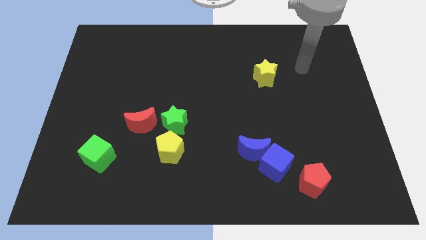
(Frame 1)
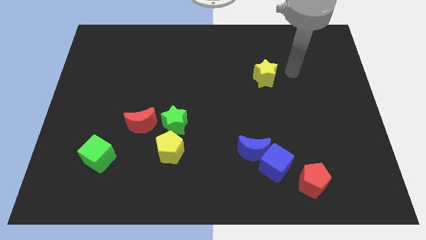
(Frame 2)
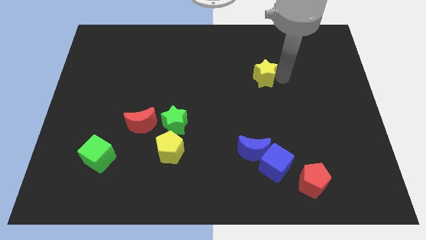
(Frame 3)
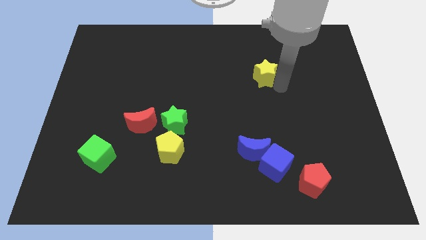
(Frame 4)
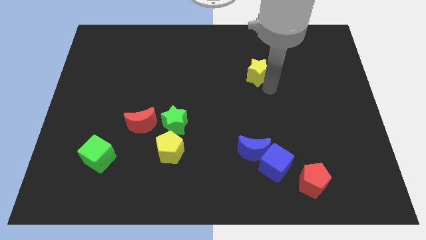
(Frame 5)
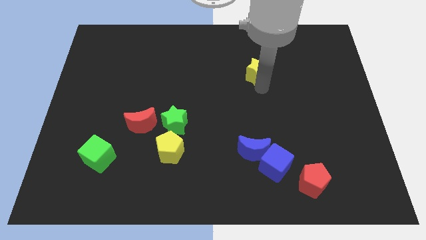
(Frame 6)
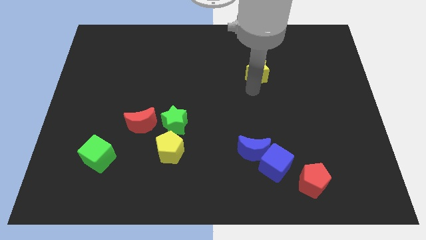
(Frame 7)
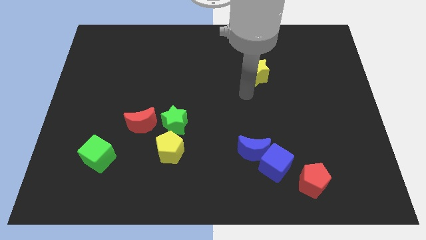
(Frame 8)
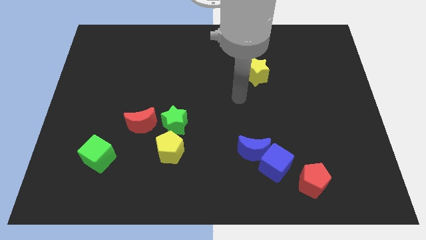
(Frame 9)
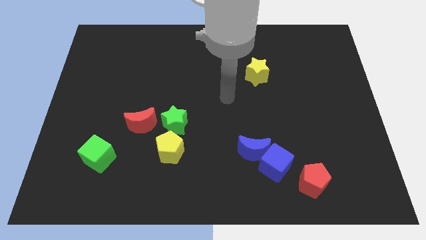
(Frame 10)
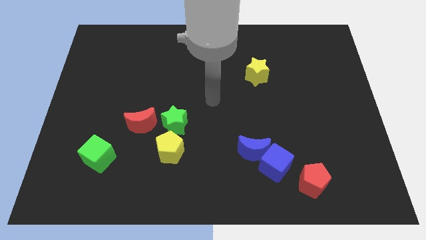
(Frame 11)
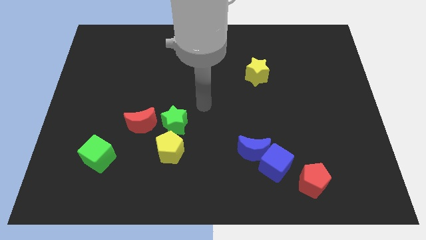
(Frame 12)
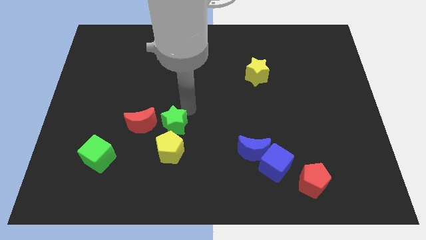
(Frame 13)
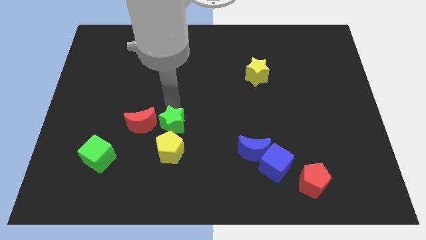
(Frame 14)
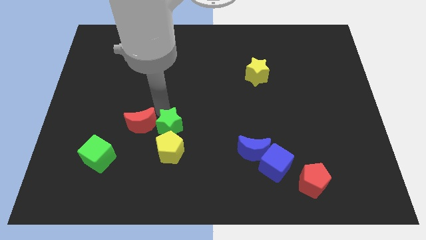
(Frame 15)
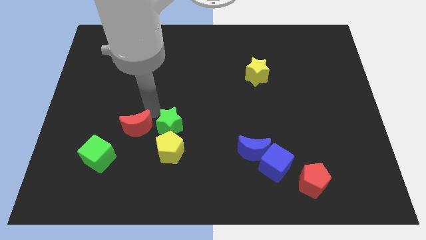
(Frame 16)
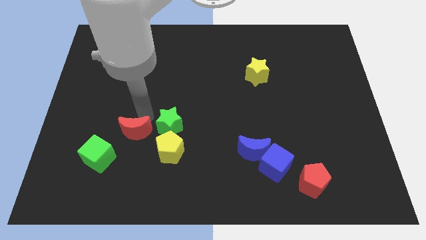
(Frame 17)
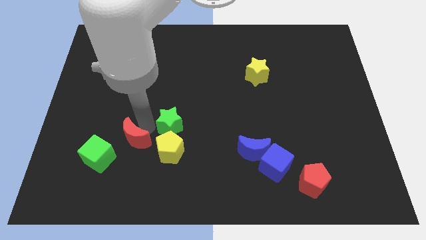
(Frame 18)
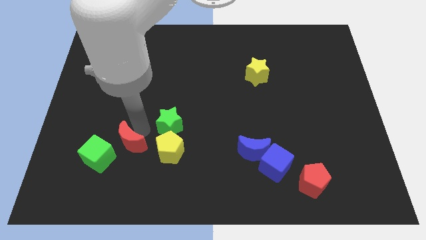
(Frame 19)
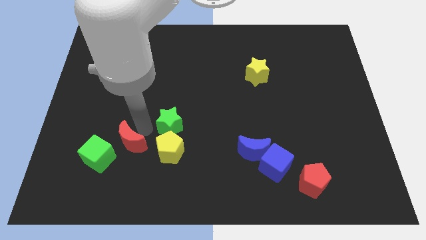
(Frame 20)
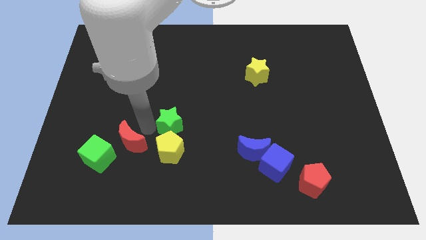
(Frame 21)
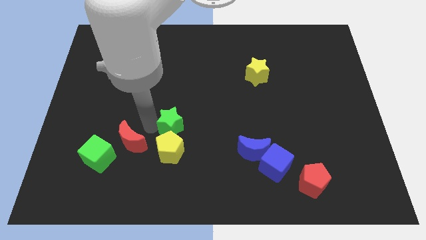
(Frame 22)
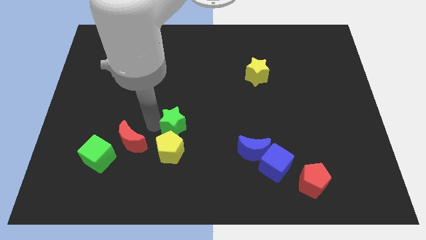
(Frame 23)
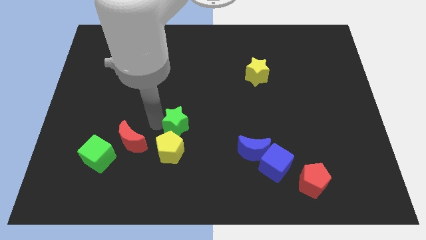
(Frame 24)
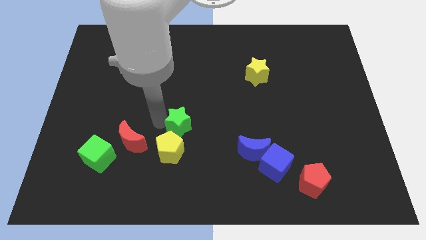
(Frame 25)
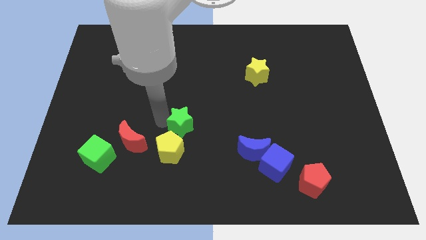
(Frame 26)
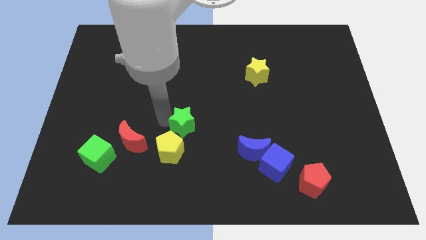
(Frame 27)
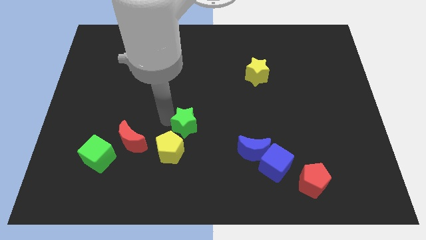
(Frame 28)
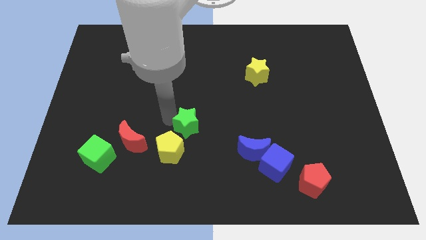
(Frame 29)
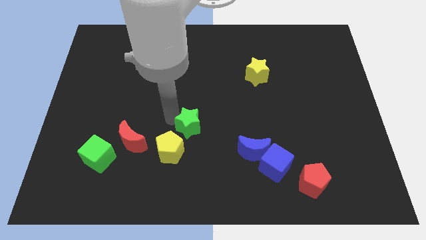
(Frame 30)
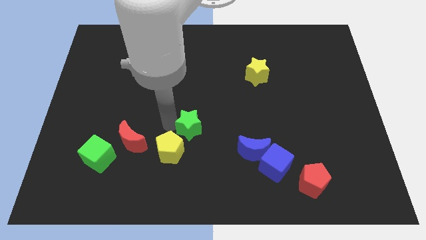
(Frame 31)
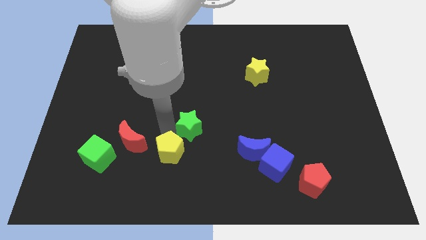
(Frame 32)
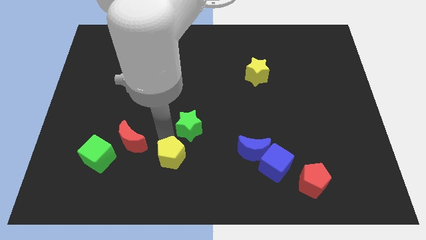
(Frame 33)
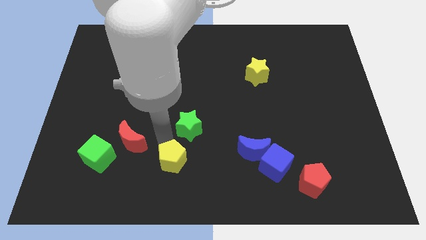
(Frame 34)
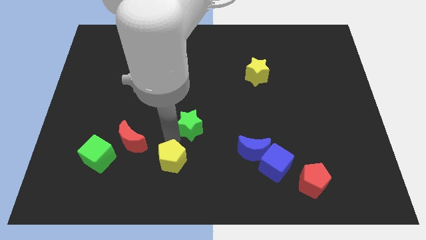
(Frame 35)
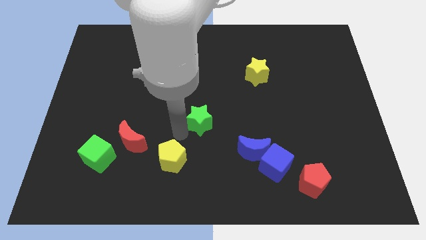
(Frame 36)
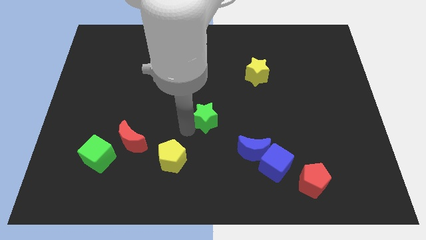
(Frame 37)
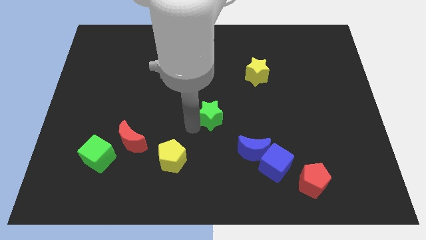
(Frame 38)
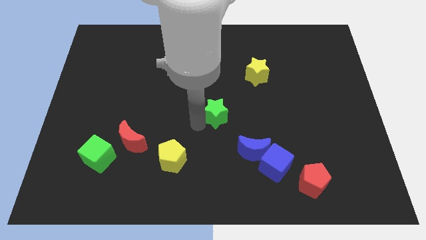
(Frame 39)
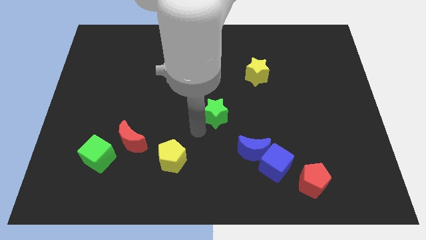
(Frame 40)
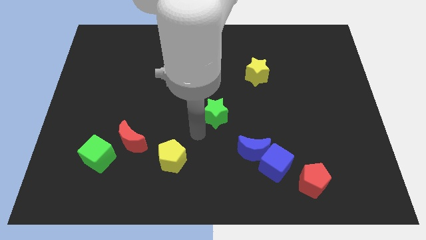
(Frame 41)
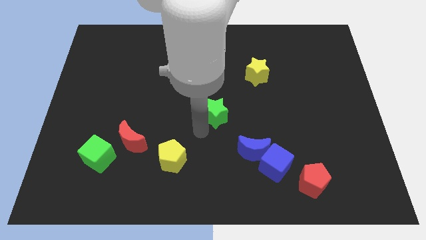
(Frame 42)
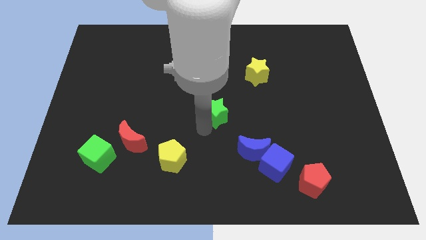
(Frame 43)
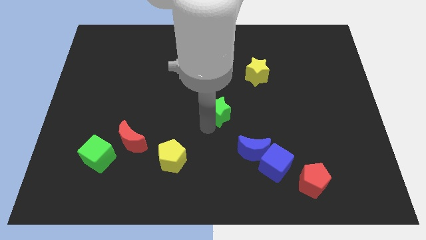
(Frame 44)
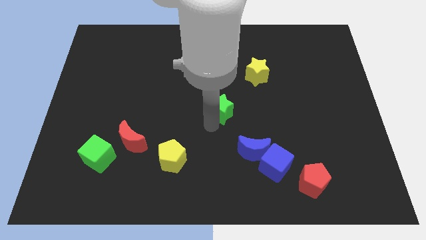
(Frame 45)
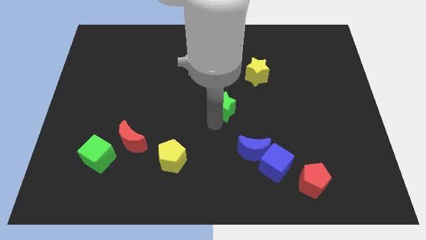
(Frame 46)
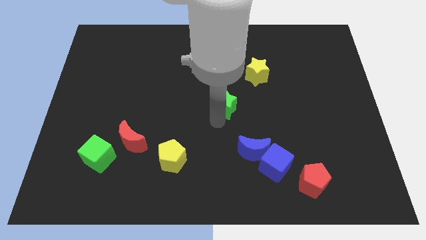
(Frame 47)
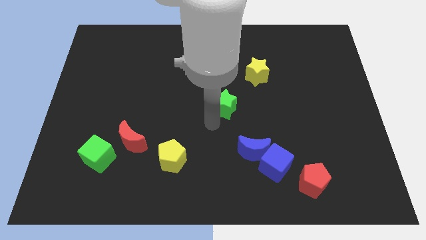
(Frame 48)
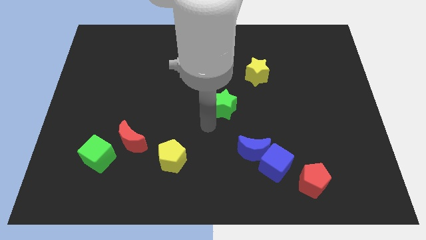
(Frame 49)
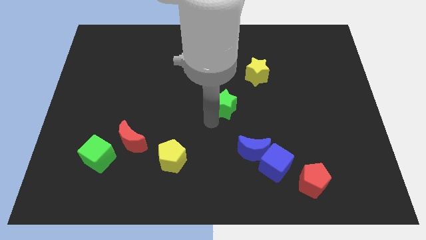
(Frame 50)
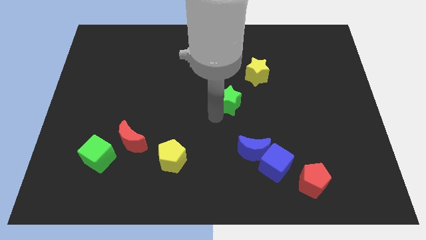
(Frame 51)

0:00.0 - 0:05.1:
slide the green star to the bottom left of the yellow star

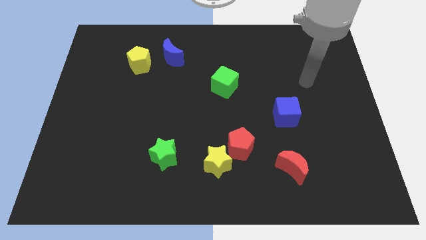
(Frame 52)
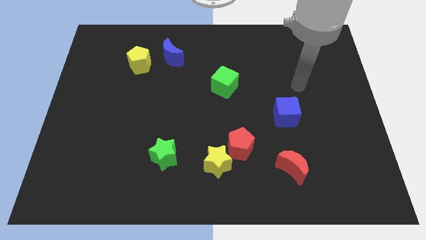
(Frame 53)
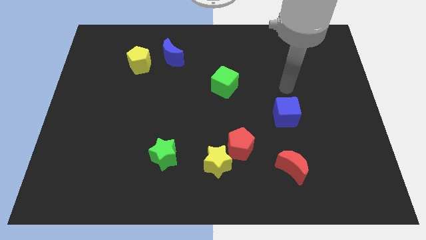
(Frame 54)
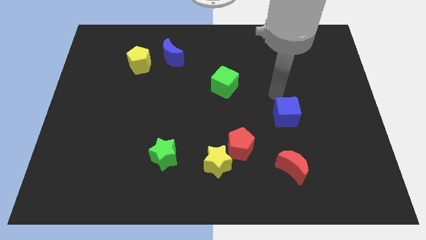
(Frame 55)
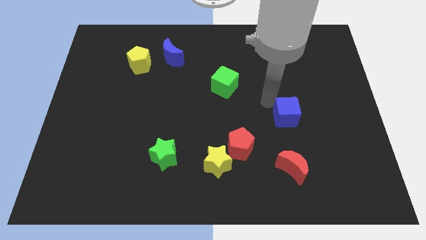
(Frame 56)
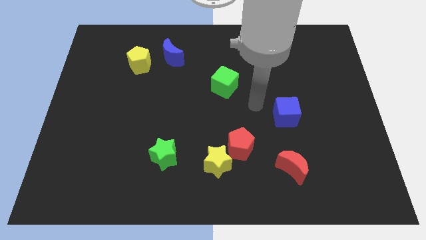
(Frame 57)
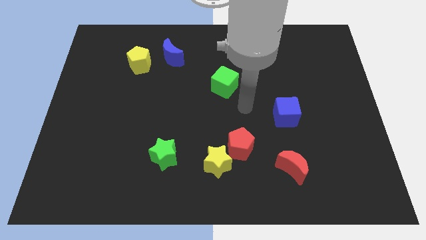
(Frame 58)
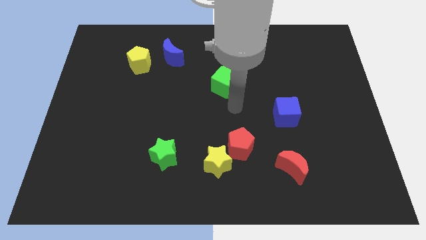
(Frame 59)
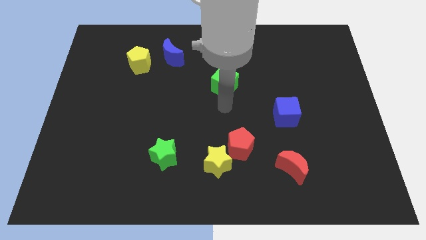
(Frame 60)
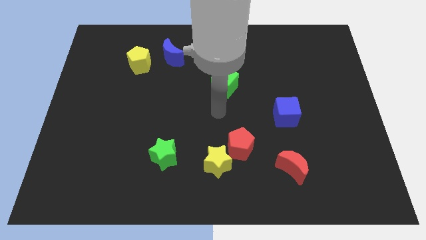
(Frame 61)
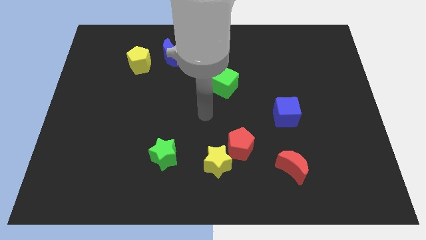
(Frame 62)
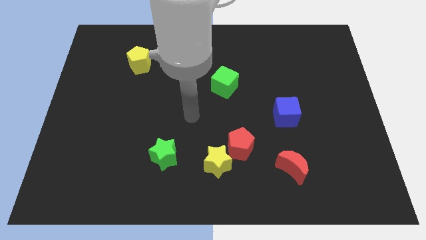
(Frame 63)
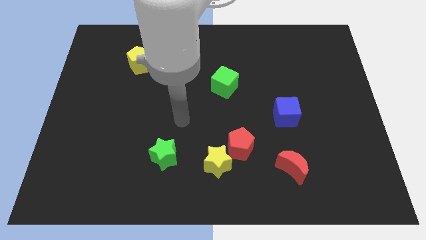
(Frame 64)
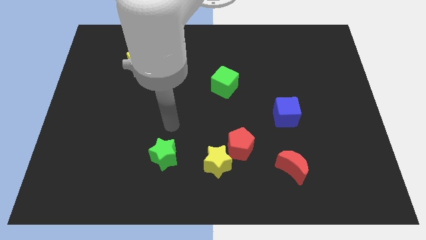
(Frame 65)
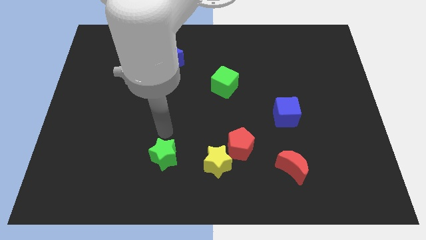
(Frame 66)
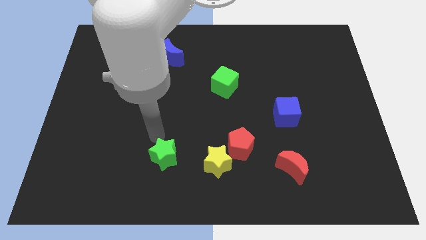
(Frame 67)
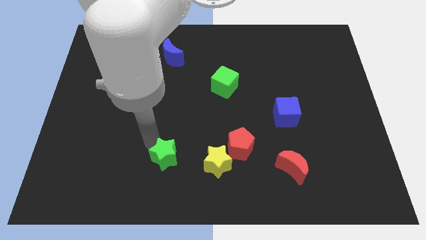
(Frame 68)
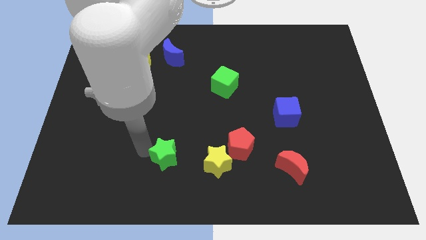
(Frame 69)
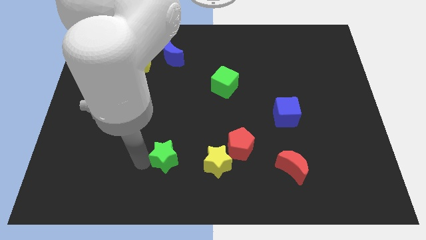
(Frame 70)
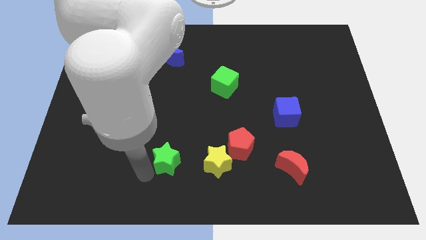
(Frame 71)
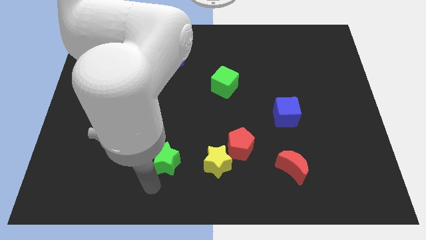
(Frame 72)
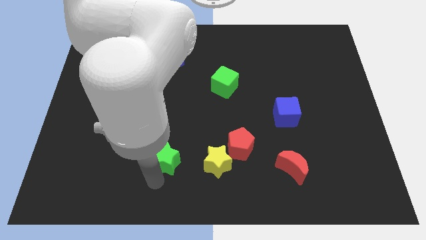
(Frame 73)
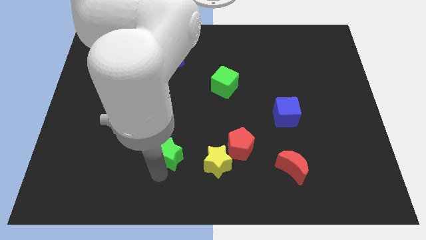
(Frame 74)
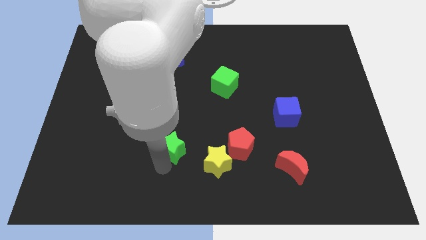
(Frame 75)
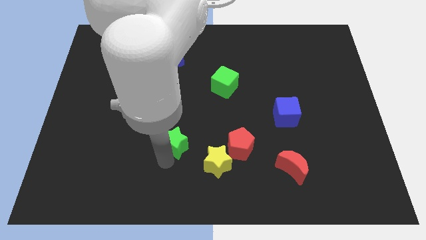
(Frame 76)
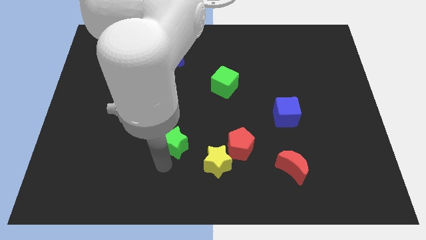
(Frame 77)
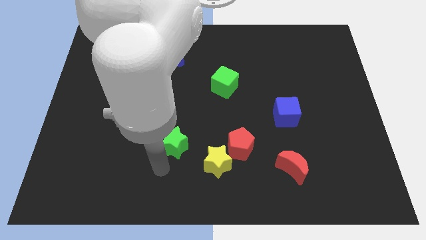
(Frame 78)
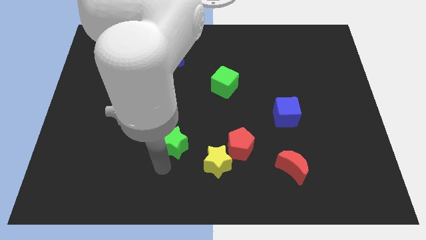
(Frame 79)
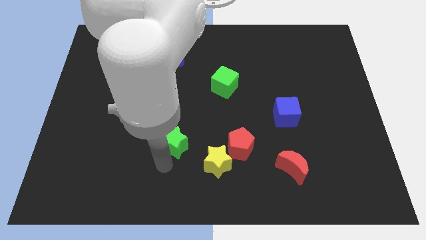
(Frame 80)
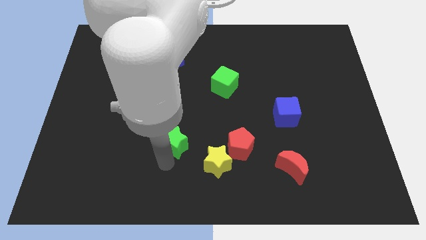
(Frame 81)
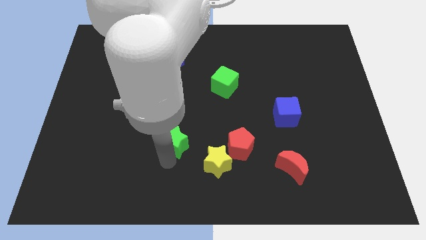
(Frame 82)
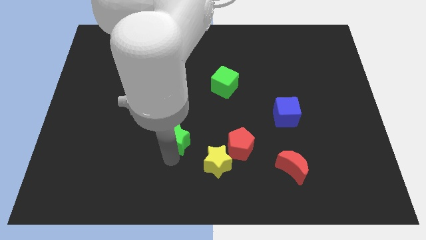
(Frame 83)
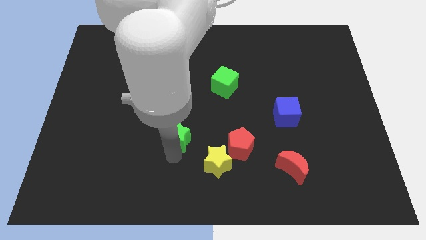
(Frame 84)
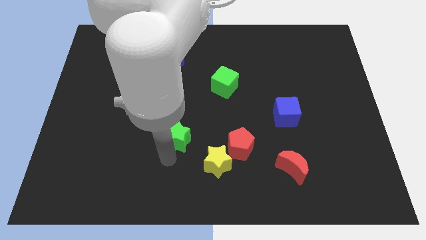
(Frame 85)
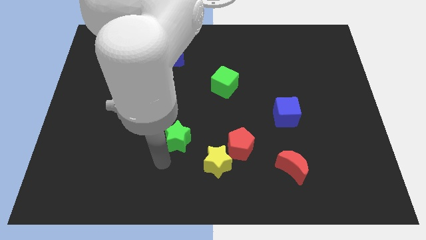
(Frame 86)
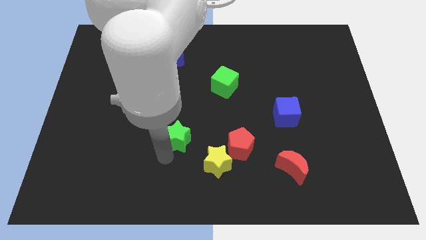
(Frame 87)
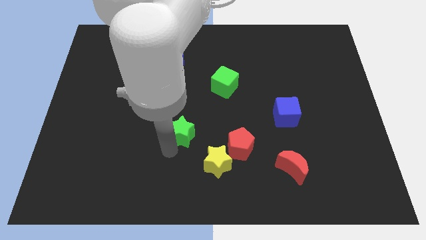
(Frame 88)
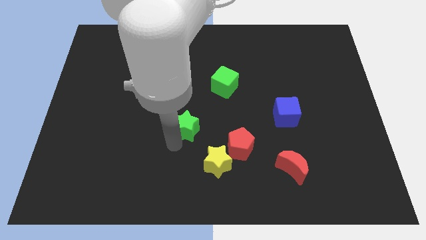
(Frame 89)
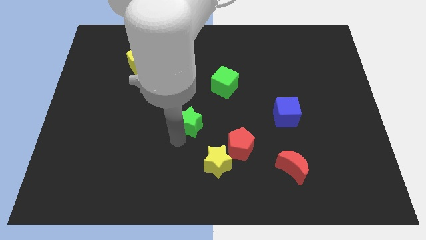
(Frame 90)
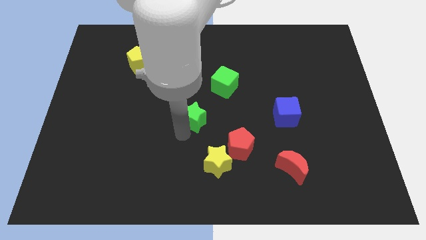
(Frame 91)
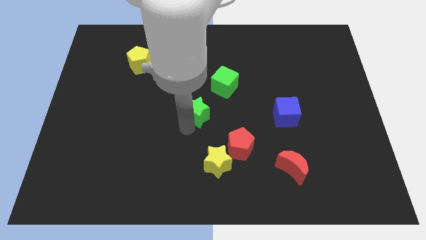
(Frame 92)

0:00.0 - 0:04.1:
slide the green star diagonally down and to the left of the green cube
